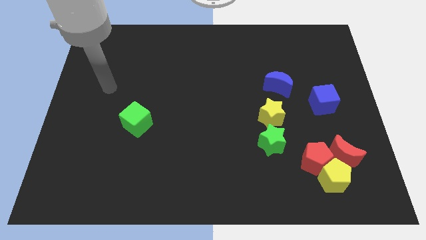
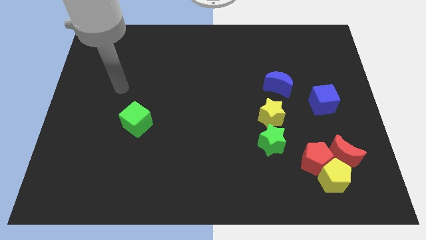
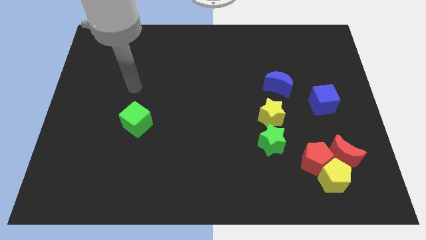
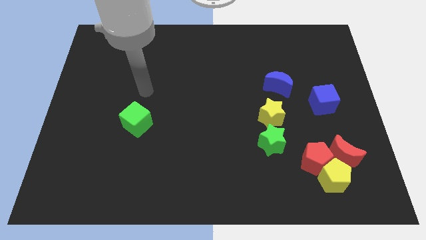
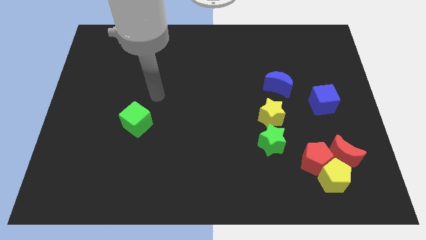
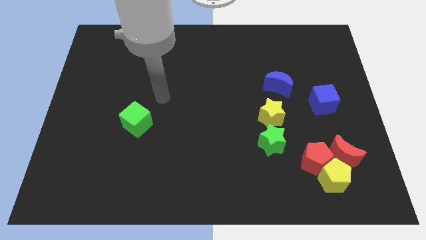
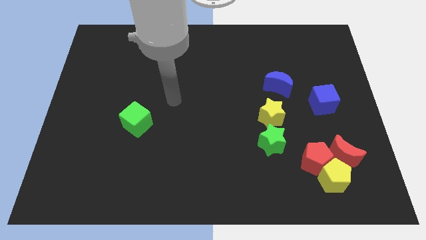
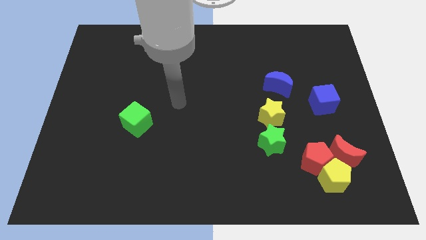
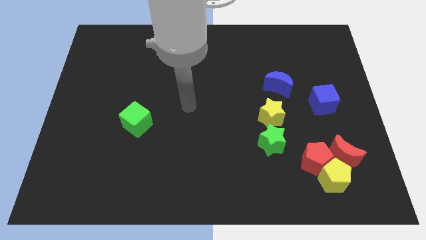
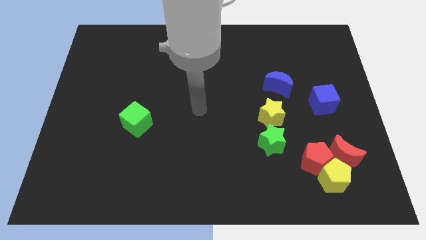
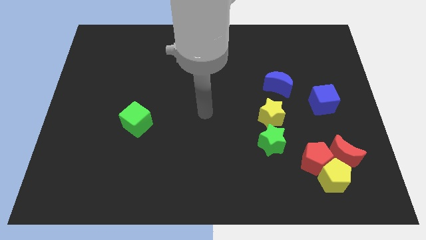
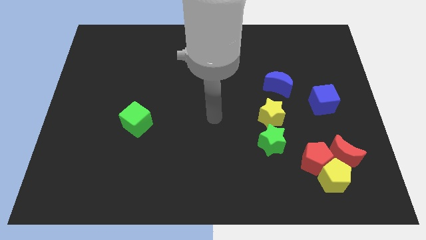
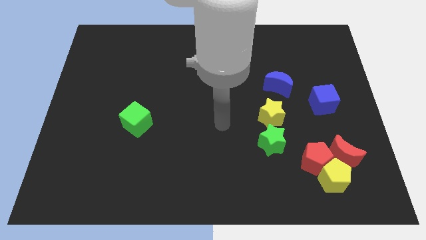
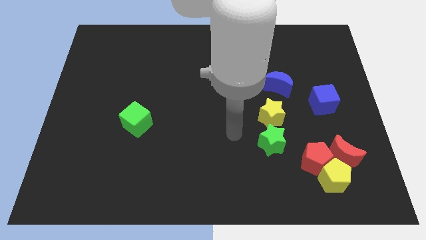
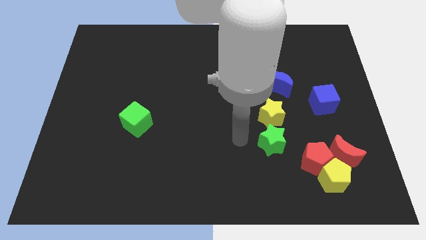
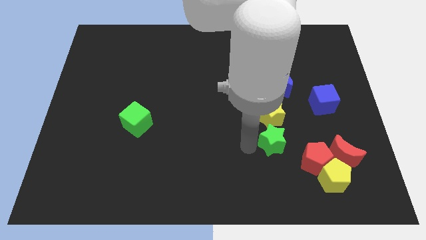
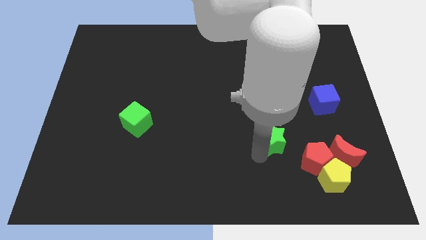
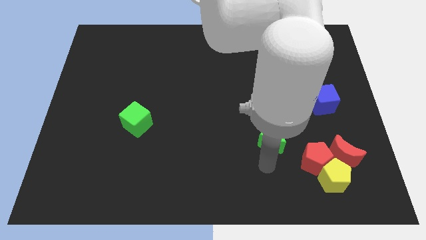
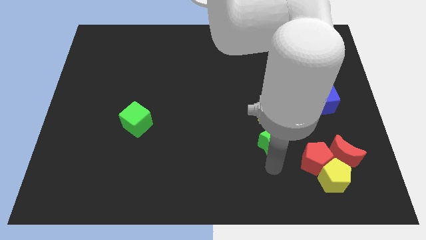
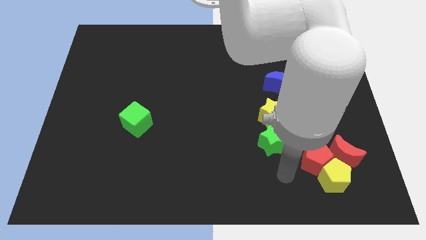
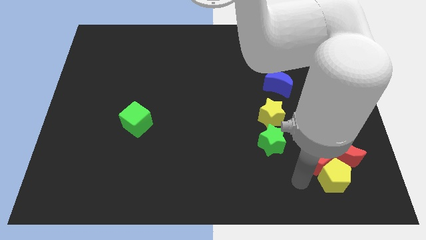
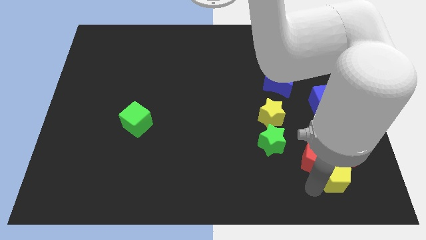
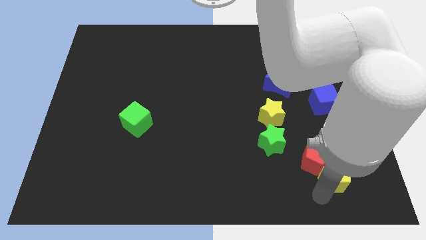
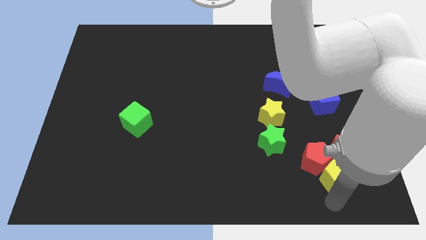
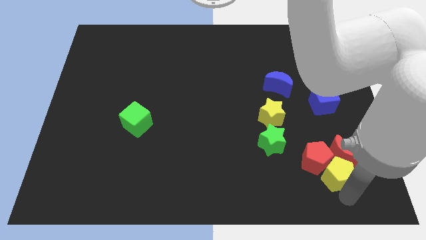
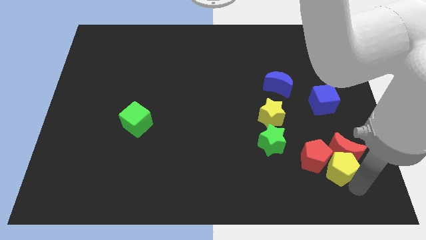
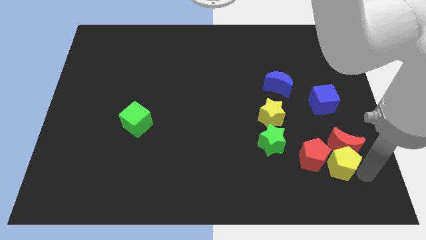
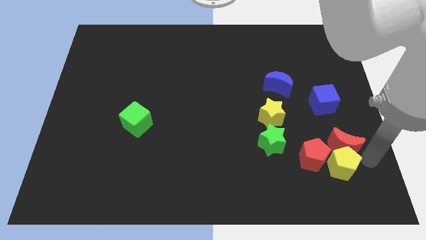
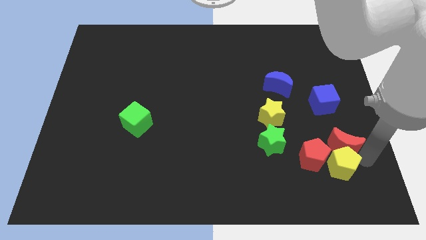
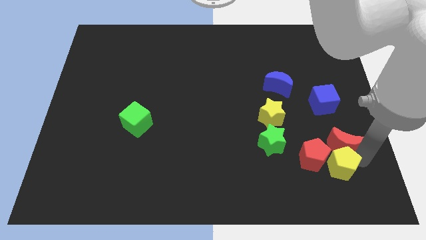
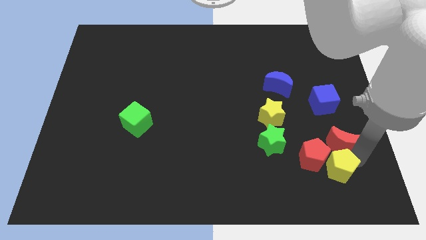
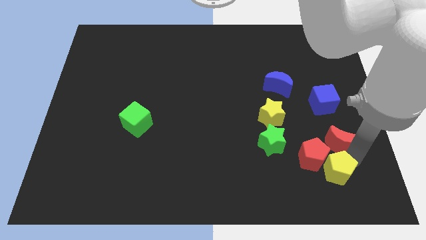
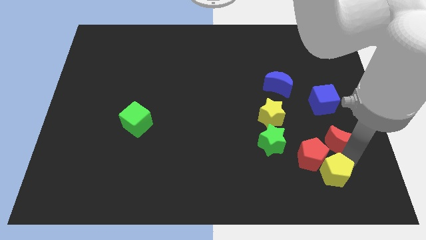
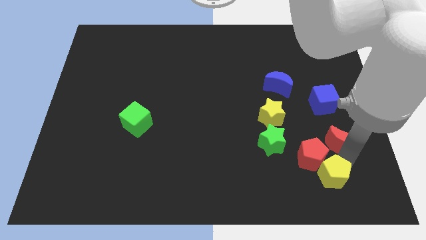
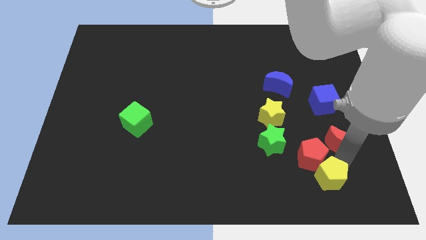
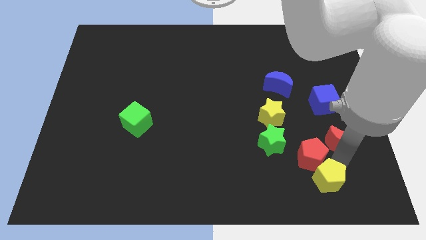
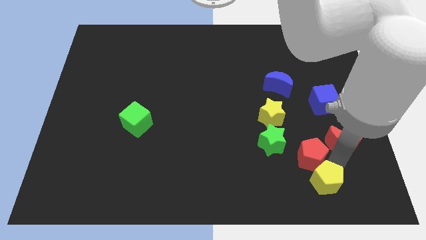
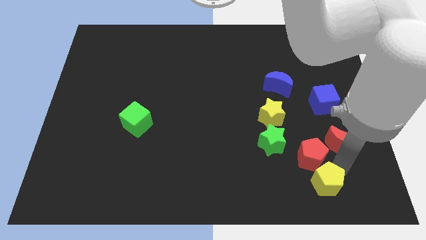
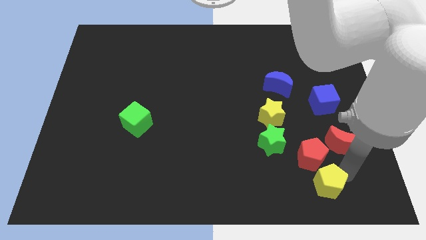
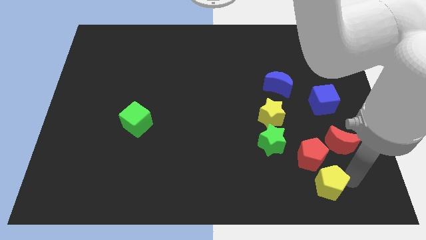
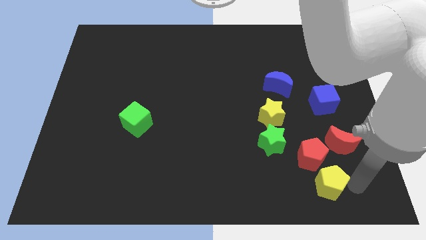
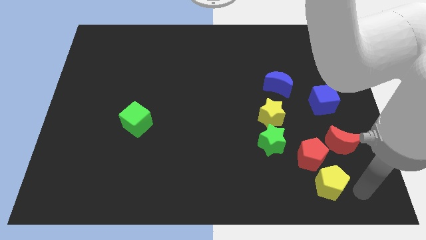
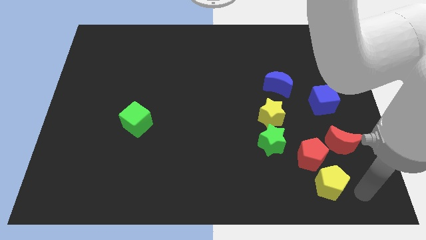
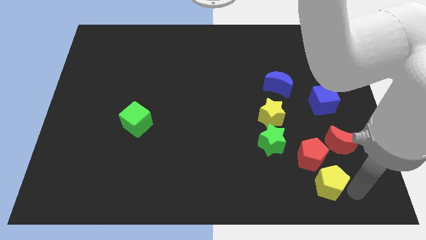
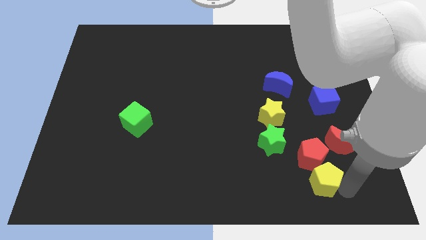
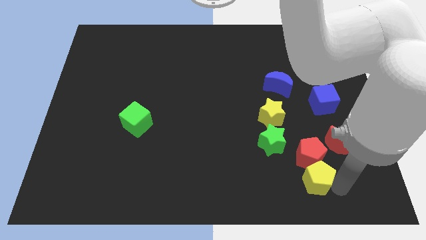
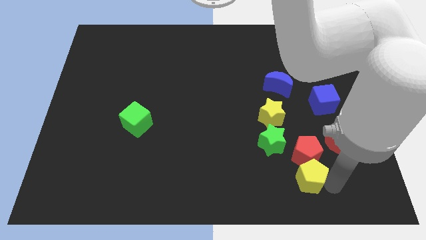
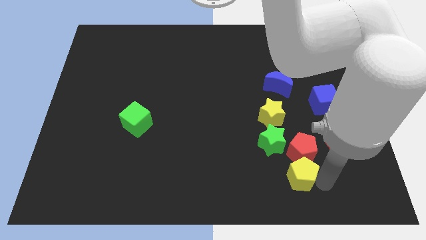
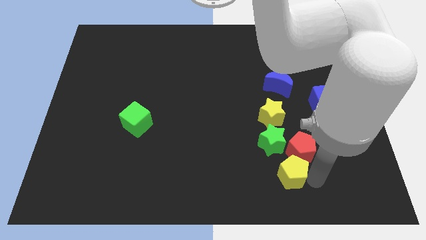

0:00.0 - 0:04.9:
slightly push the yellow pentagon left

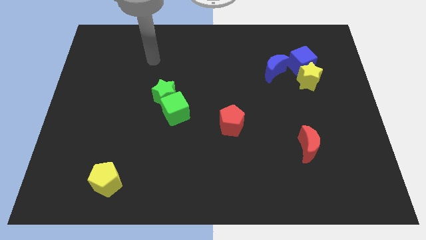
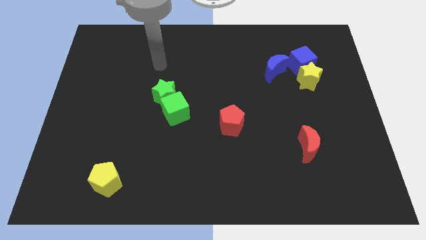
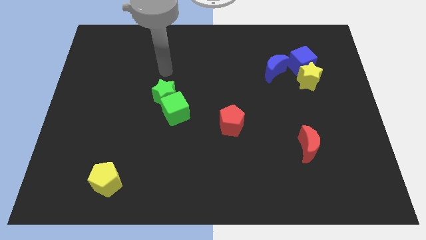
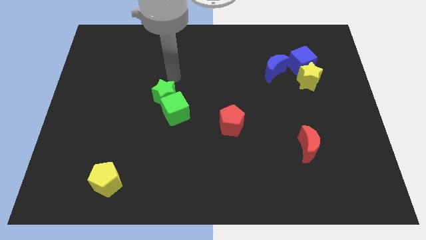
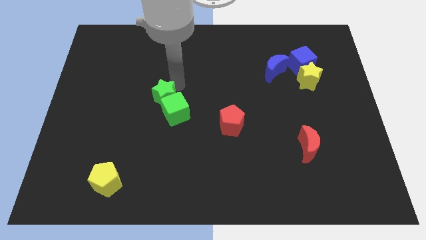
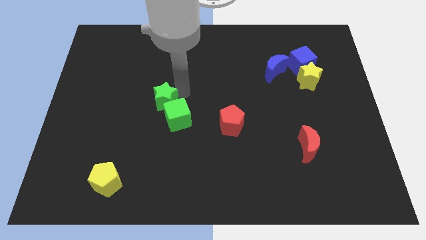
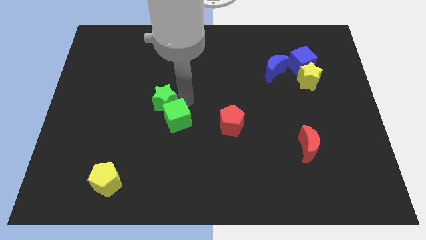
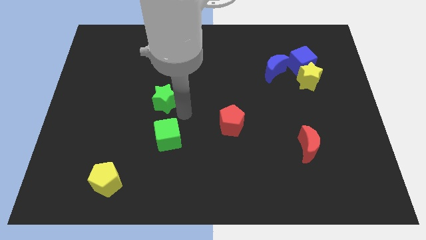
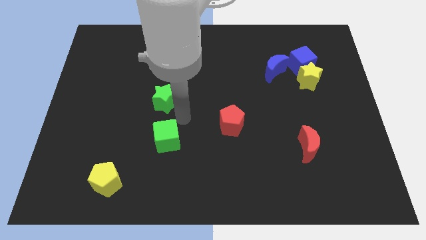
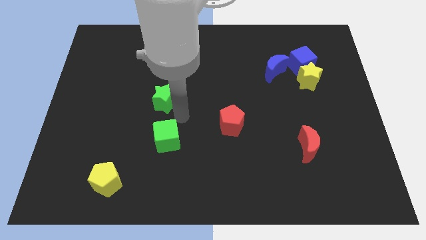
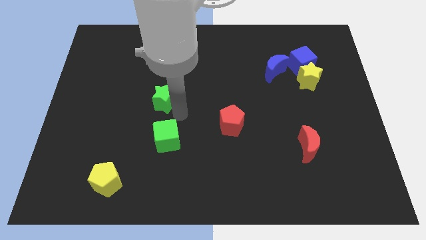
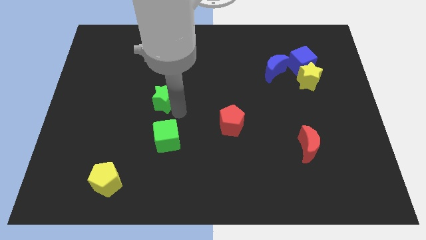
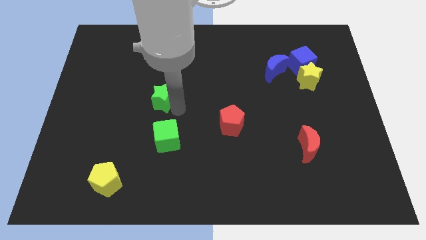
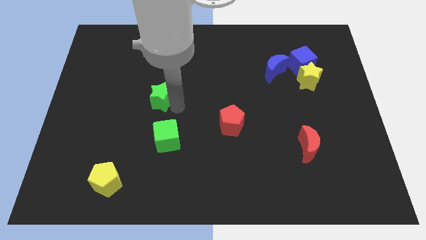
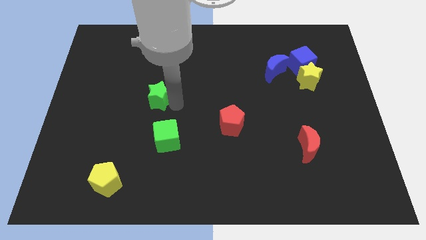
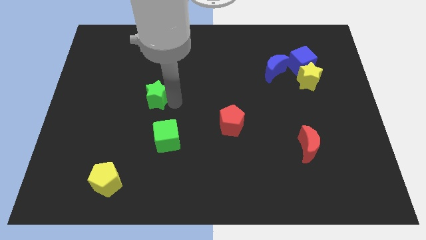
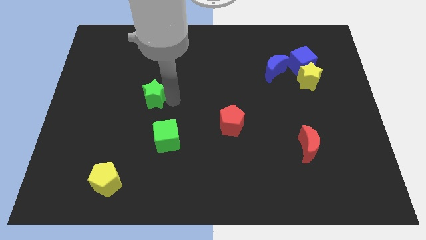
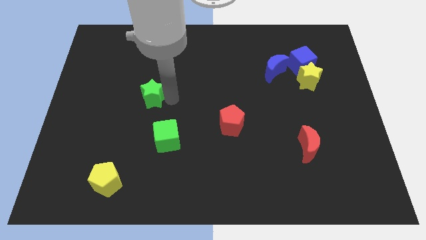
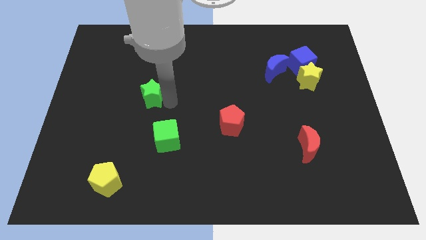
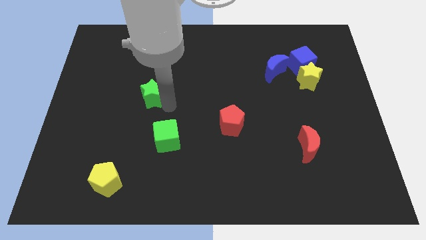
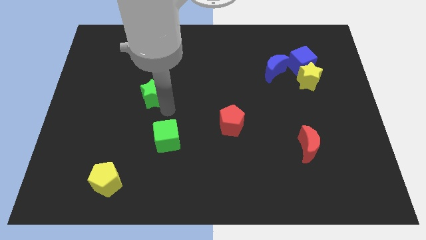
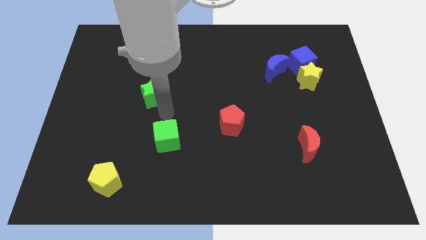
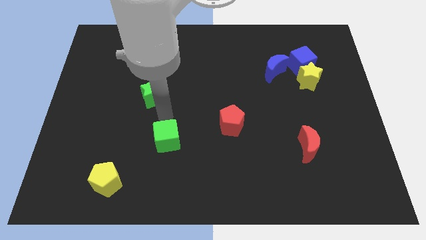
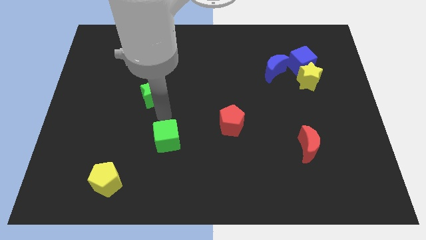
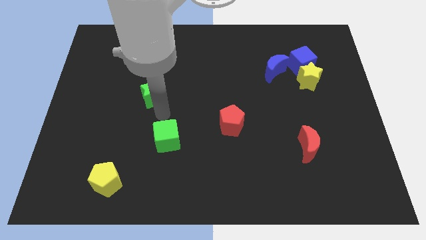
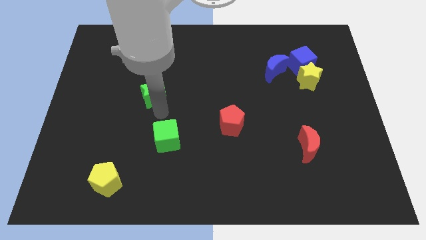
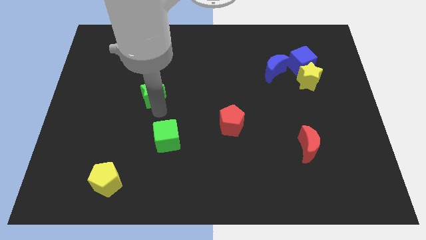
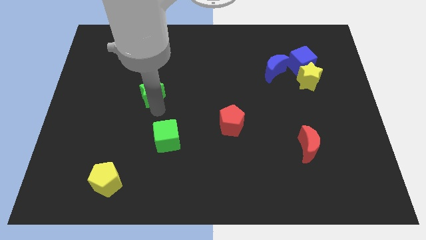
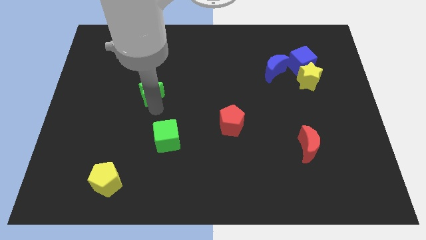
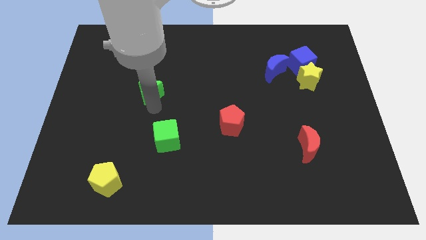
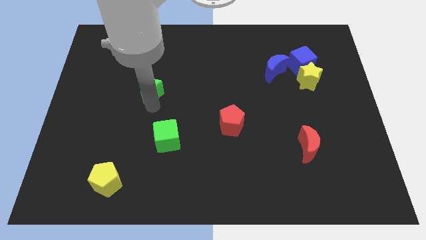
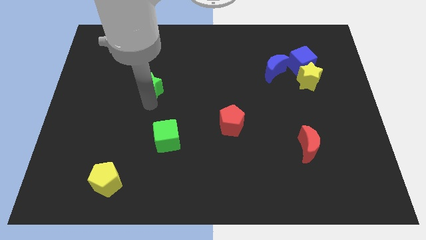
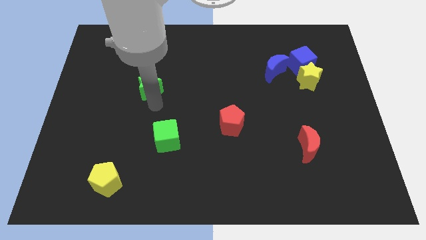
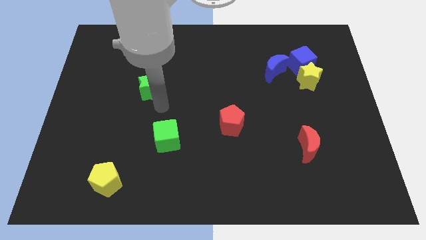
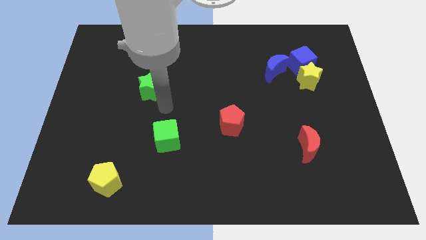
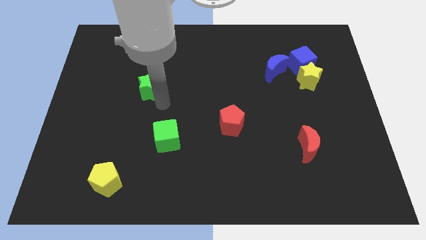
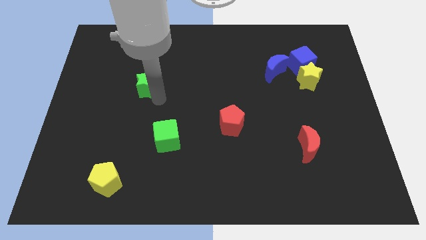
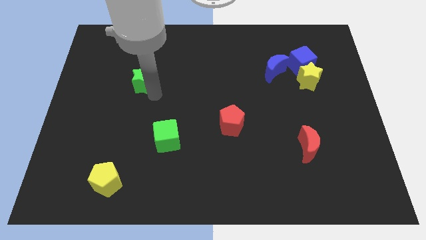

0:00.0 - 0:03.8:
slightly push the green star up and to the left

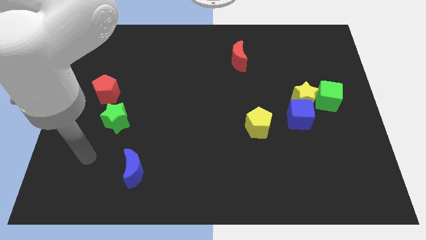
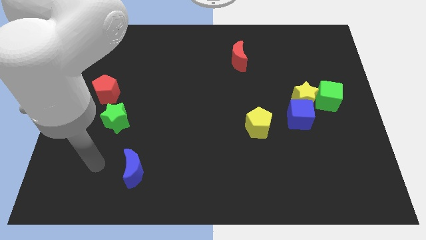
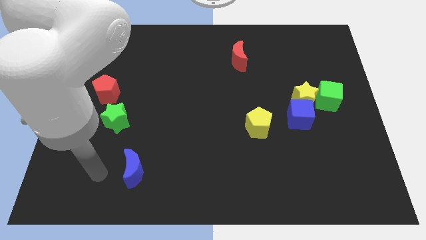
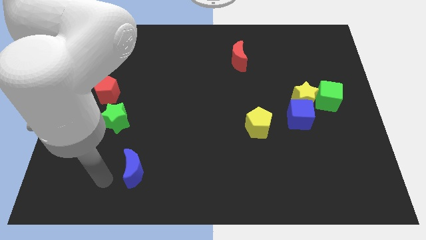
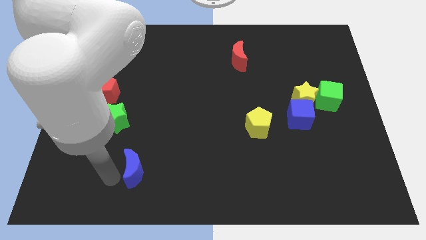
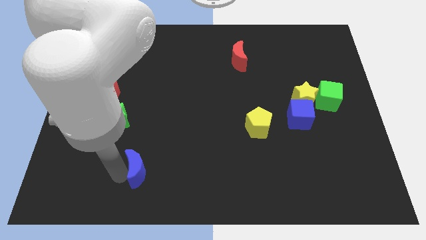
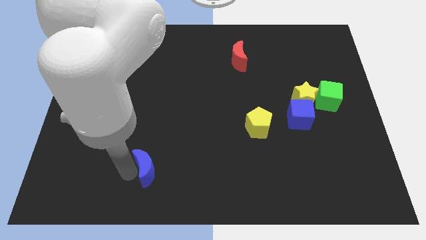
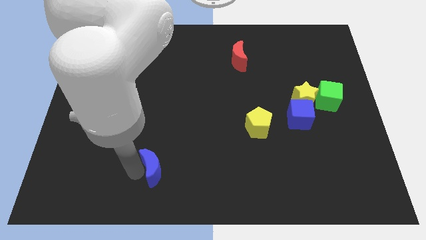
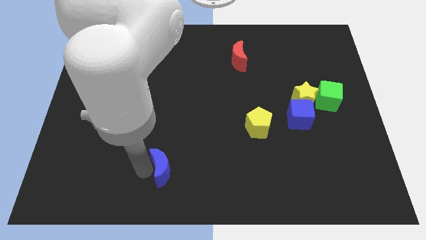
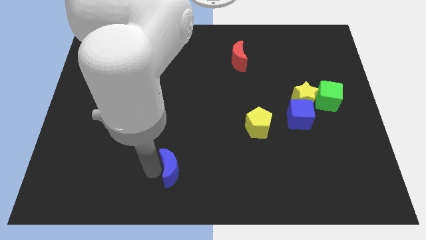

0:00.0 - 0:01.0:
slightly move the blue moon right
